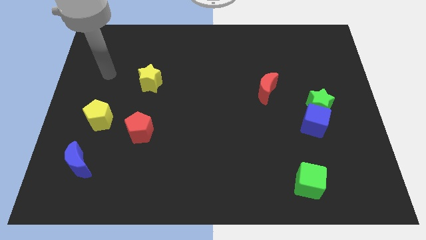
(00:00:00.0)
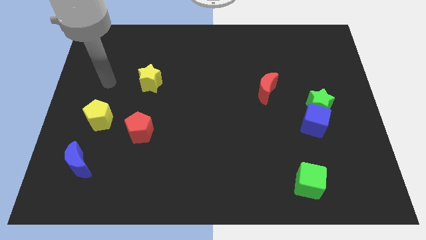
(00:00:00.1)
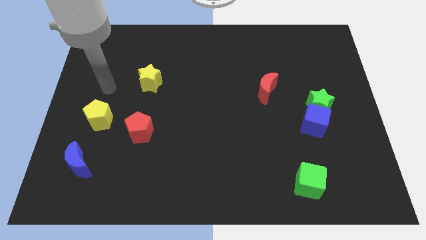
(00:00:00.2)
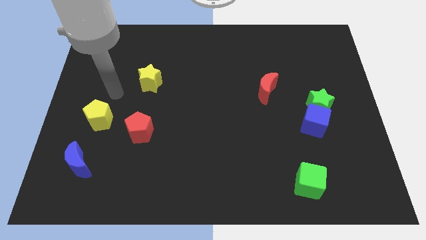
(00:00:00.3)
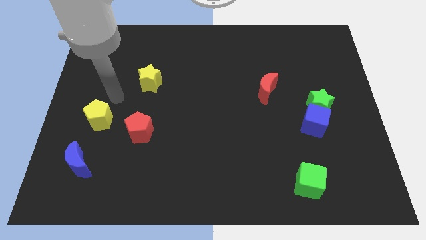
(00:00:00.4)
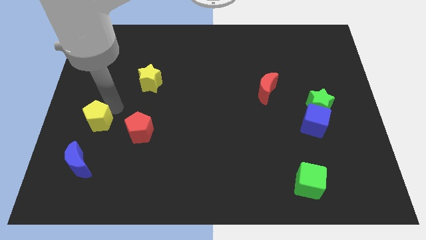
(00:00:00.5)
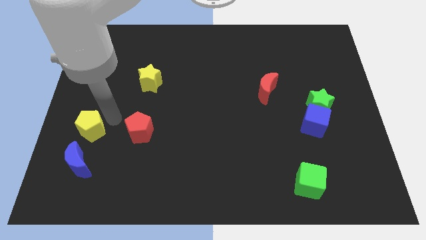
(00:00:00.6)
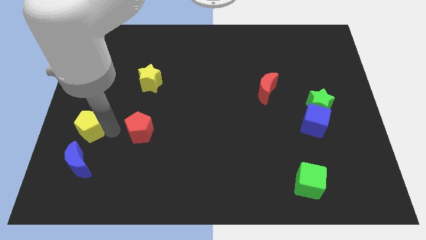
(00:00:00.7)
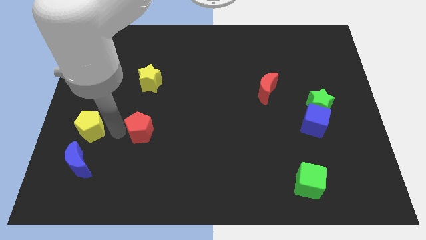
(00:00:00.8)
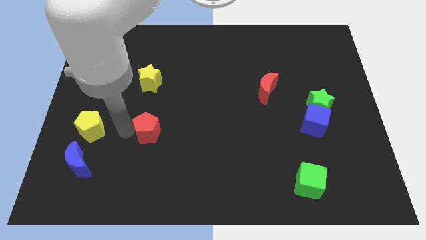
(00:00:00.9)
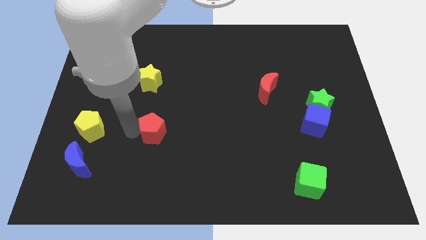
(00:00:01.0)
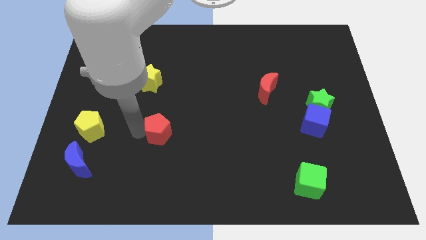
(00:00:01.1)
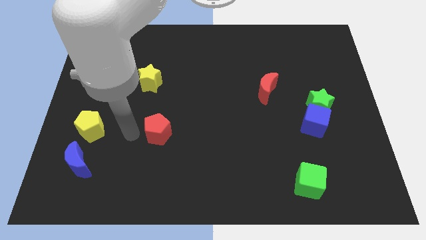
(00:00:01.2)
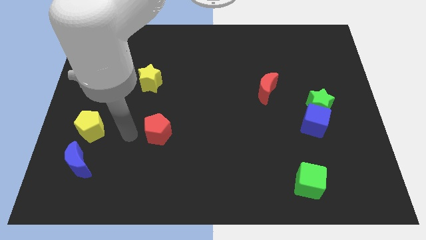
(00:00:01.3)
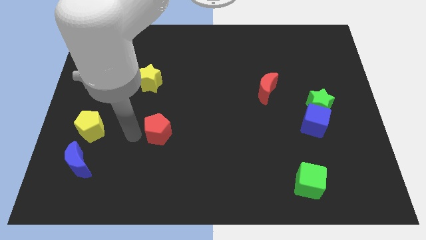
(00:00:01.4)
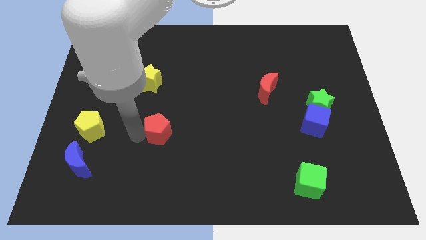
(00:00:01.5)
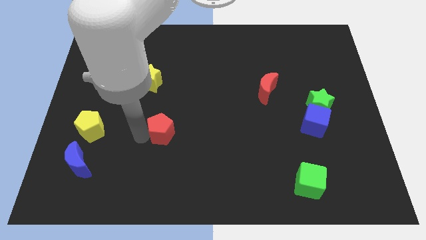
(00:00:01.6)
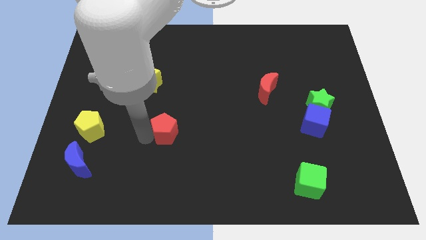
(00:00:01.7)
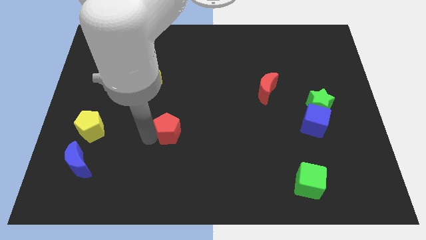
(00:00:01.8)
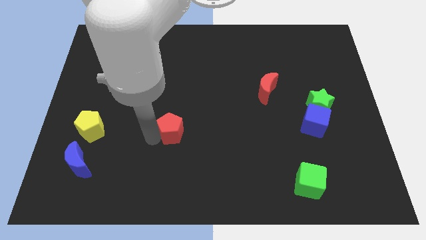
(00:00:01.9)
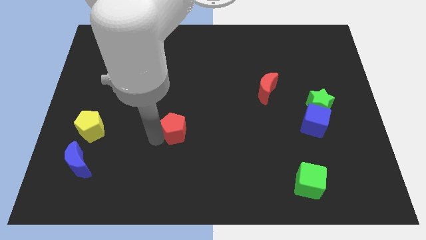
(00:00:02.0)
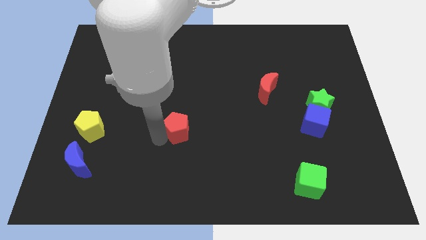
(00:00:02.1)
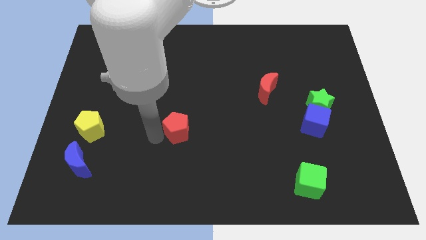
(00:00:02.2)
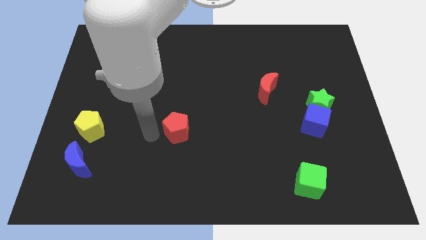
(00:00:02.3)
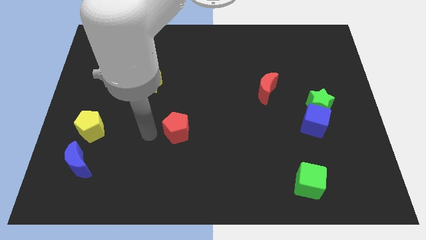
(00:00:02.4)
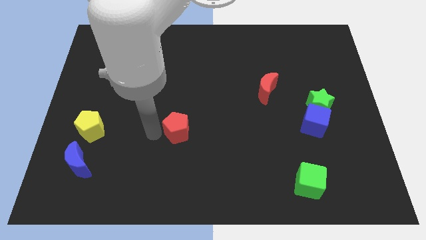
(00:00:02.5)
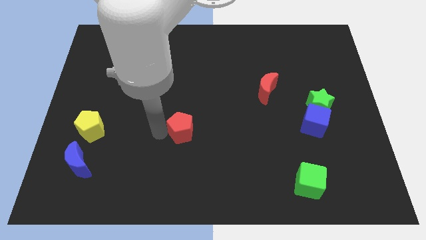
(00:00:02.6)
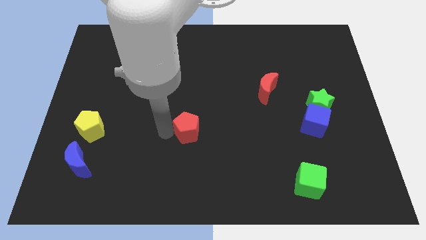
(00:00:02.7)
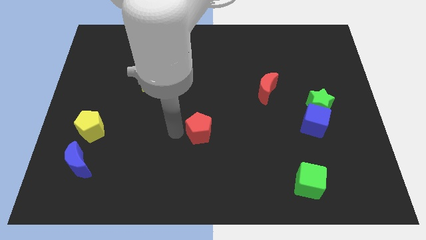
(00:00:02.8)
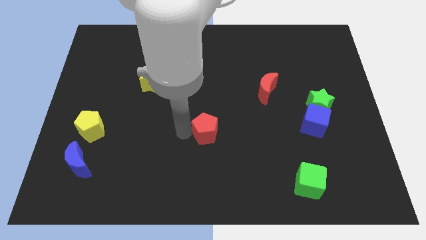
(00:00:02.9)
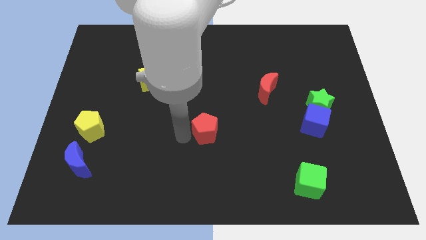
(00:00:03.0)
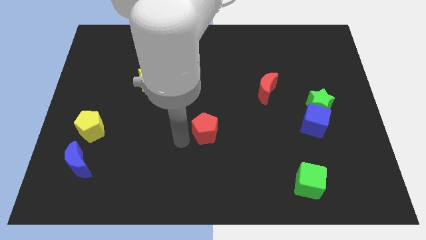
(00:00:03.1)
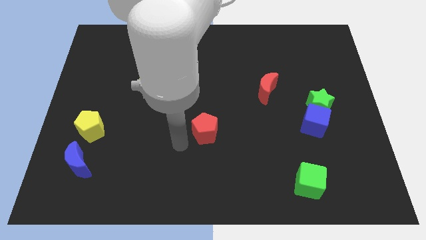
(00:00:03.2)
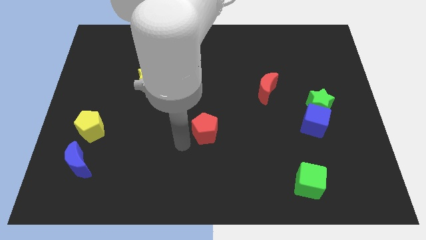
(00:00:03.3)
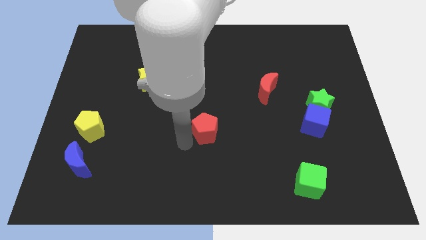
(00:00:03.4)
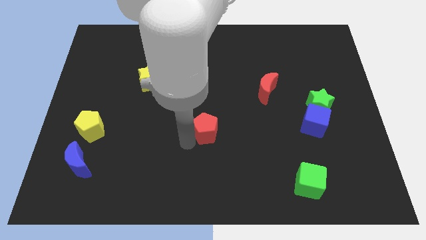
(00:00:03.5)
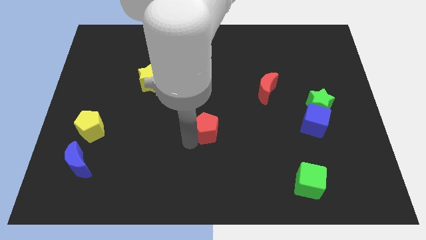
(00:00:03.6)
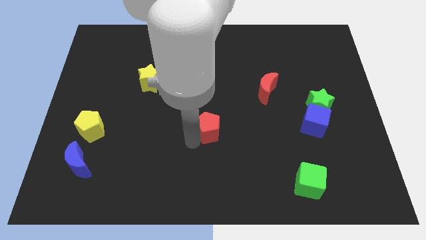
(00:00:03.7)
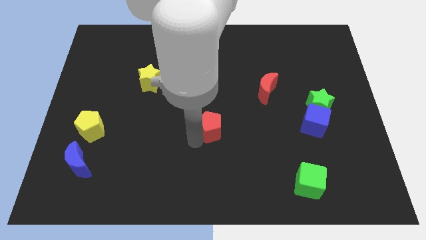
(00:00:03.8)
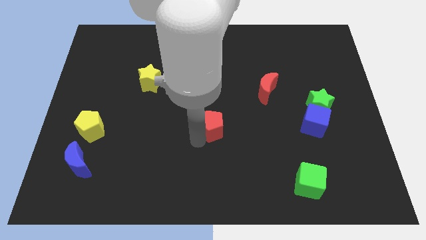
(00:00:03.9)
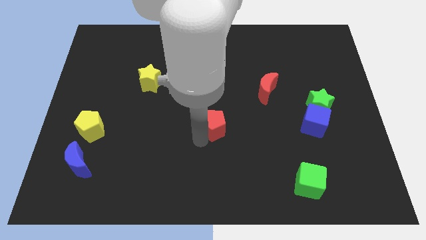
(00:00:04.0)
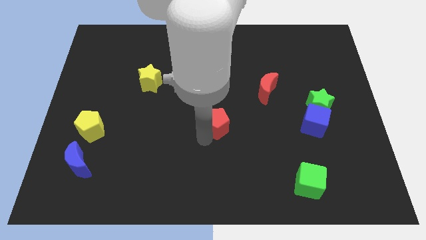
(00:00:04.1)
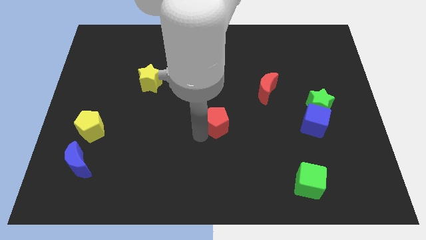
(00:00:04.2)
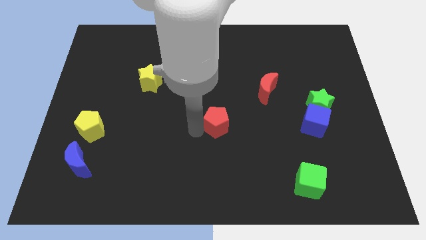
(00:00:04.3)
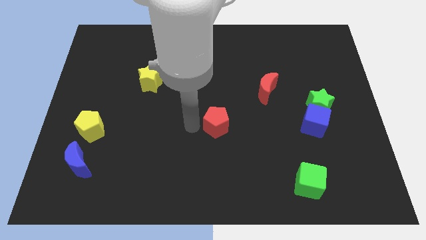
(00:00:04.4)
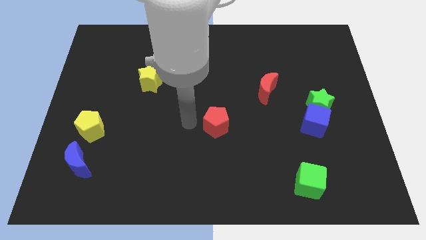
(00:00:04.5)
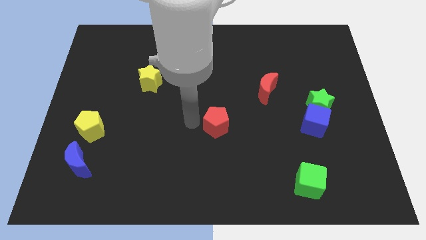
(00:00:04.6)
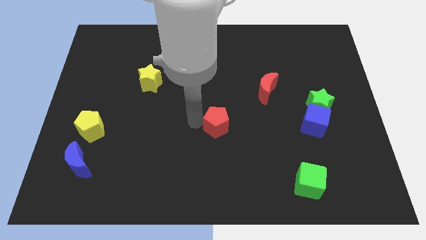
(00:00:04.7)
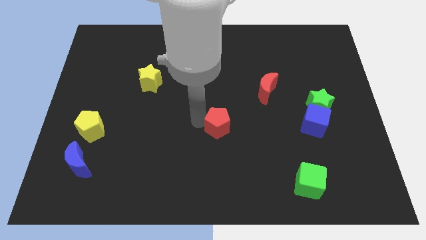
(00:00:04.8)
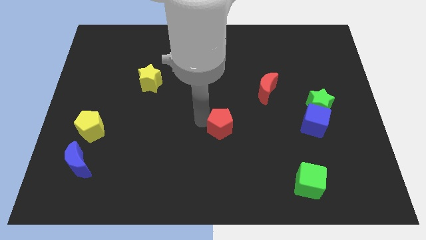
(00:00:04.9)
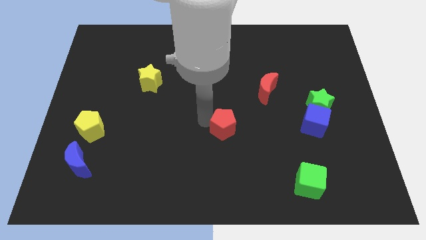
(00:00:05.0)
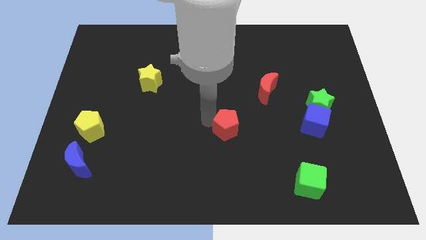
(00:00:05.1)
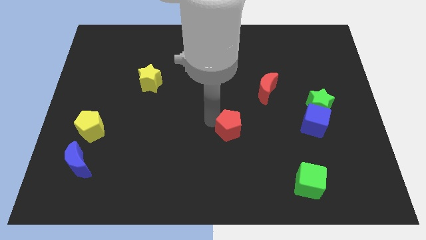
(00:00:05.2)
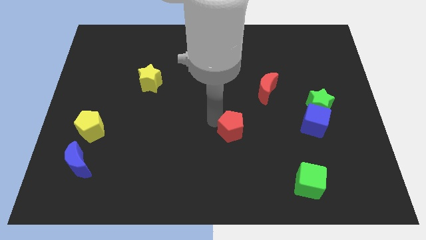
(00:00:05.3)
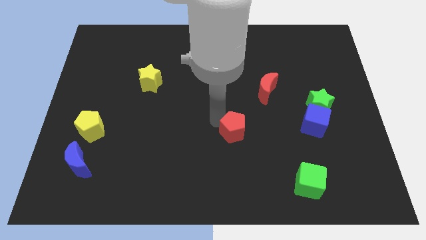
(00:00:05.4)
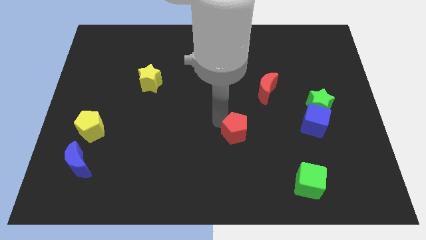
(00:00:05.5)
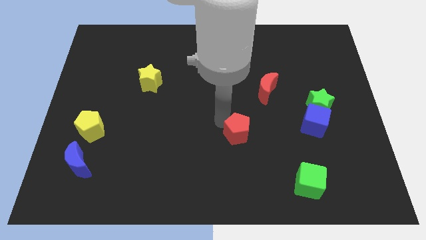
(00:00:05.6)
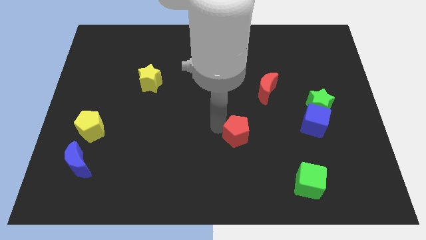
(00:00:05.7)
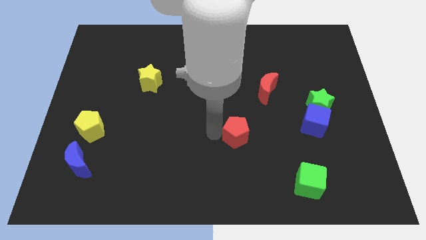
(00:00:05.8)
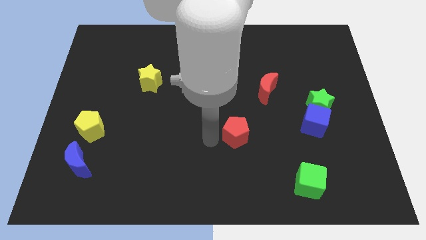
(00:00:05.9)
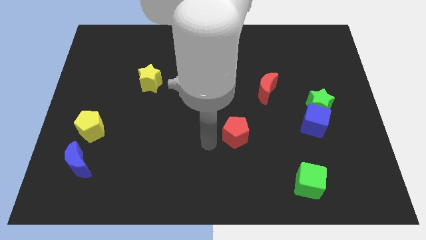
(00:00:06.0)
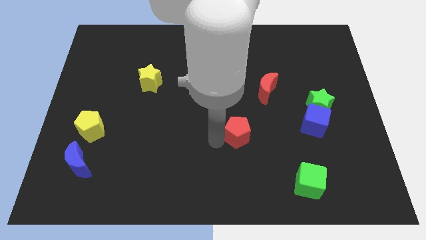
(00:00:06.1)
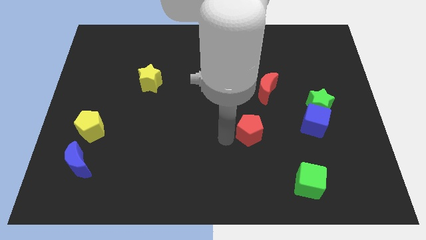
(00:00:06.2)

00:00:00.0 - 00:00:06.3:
slide the red pentagon to the bottom side of the red moon

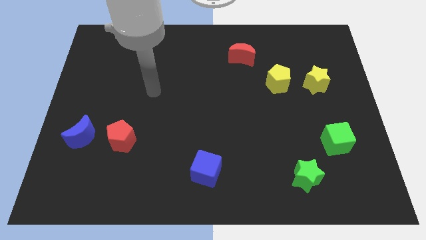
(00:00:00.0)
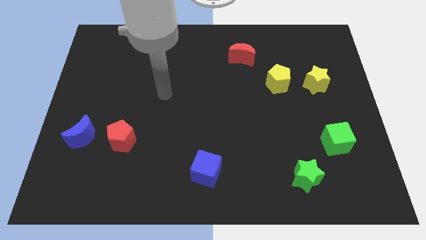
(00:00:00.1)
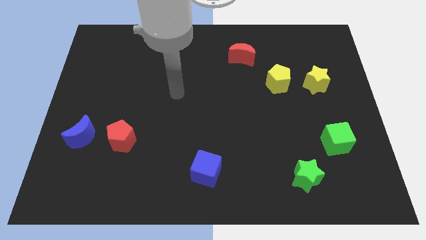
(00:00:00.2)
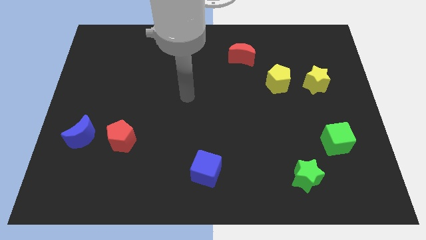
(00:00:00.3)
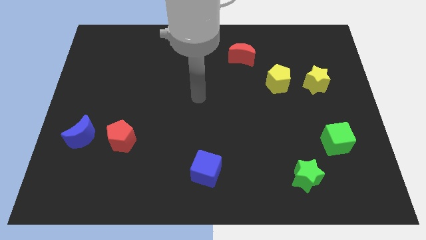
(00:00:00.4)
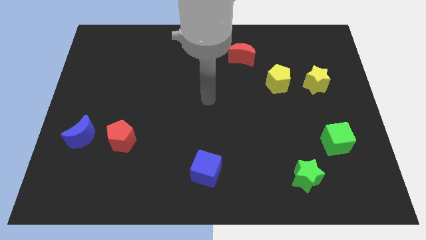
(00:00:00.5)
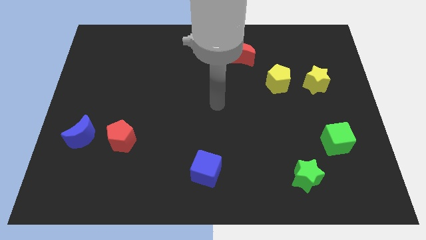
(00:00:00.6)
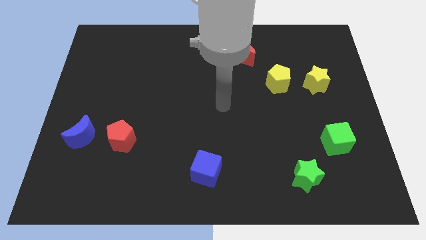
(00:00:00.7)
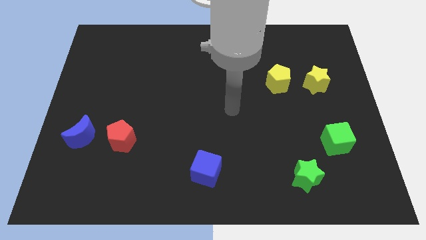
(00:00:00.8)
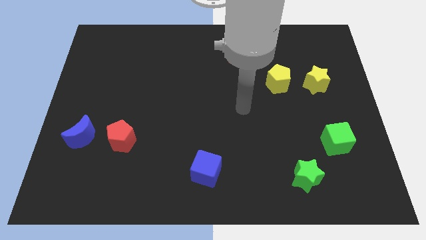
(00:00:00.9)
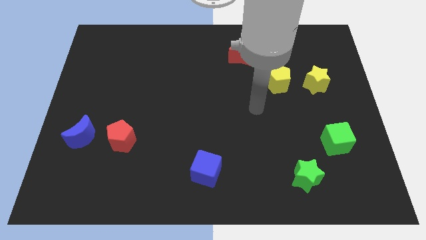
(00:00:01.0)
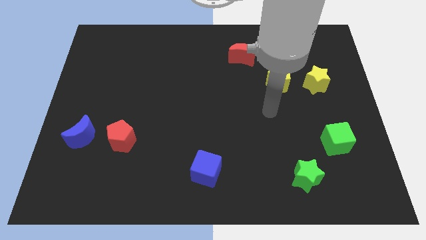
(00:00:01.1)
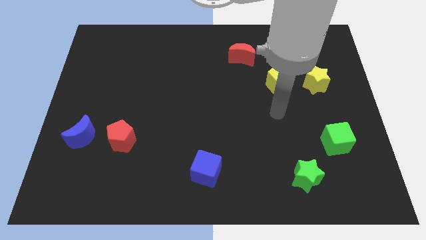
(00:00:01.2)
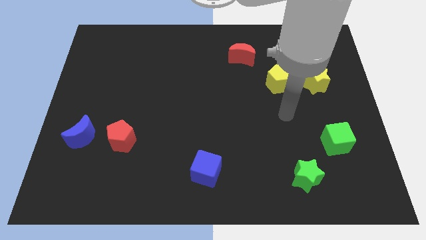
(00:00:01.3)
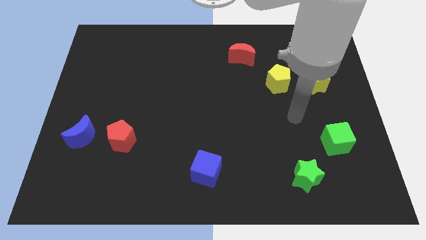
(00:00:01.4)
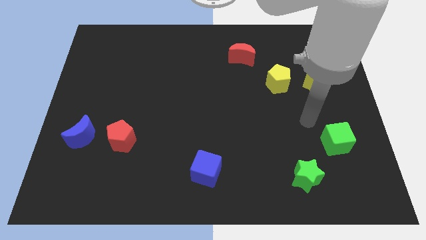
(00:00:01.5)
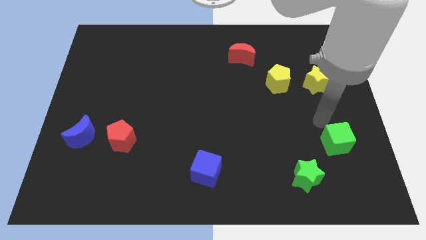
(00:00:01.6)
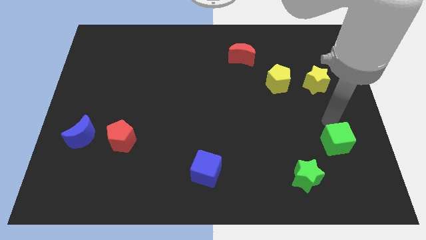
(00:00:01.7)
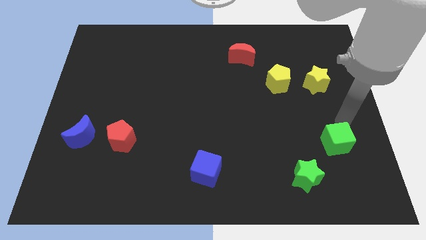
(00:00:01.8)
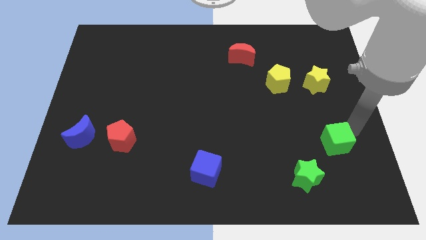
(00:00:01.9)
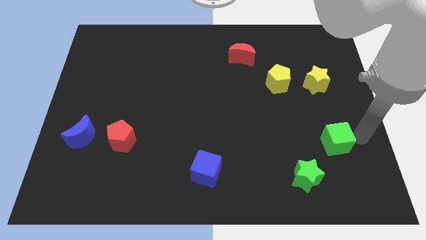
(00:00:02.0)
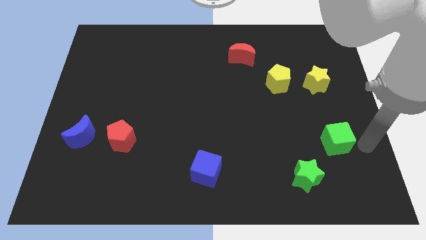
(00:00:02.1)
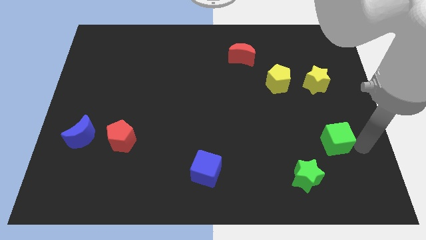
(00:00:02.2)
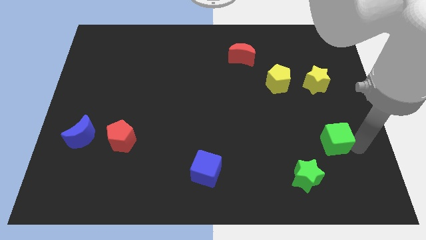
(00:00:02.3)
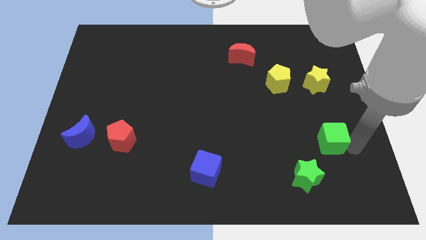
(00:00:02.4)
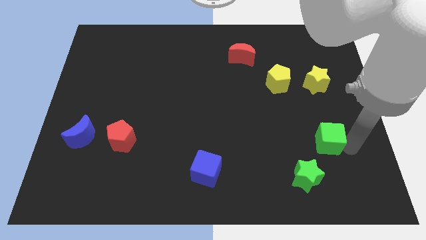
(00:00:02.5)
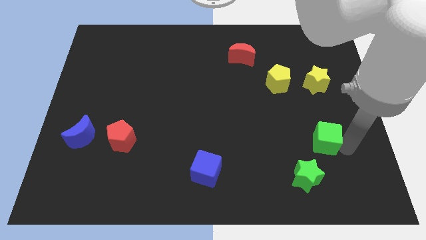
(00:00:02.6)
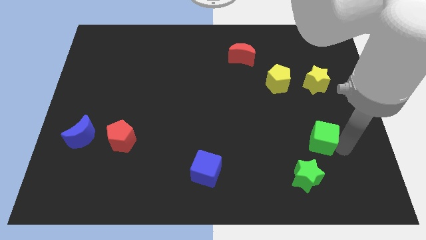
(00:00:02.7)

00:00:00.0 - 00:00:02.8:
push the green cube above the green star
